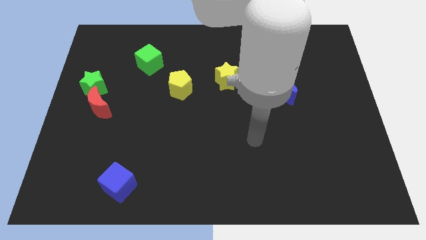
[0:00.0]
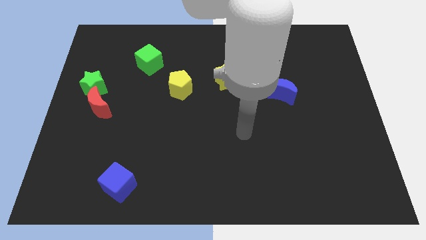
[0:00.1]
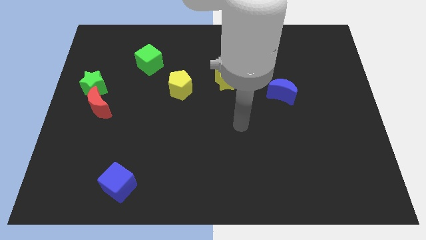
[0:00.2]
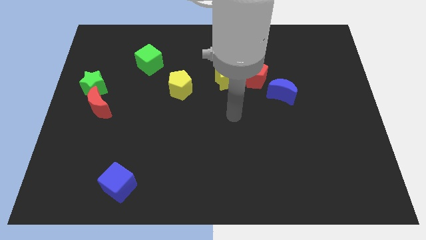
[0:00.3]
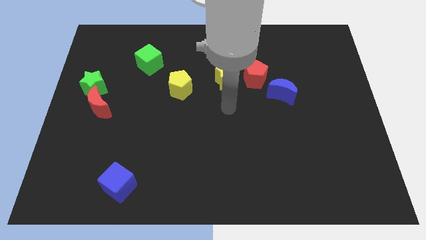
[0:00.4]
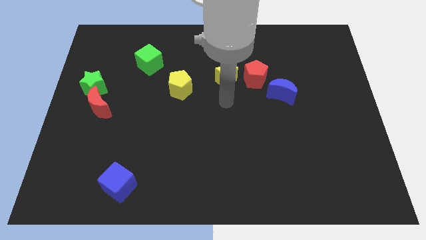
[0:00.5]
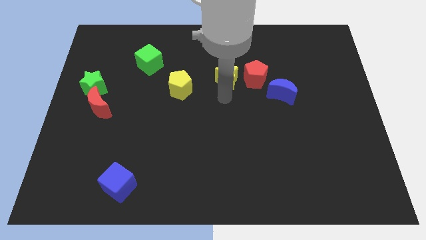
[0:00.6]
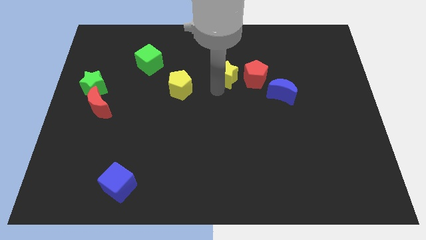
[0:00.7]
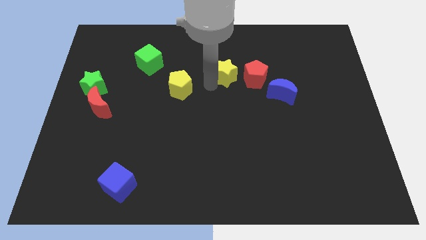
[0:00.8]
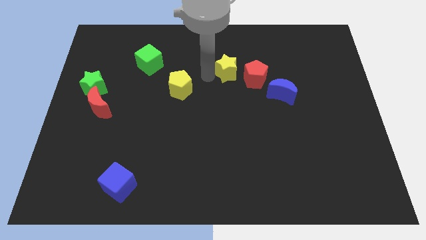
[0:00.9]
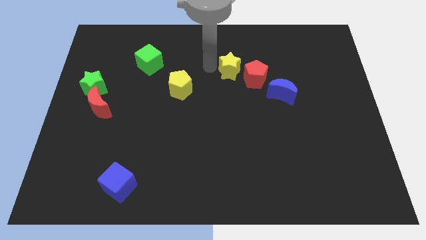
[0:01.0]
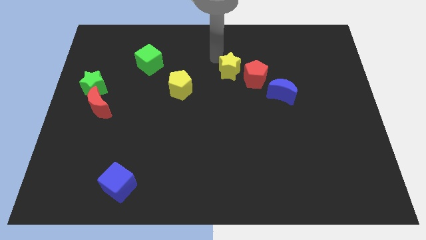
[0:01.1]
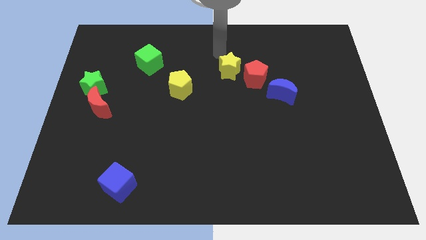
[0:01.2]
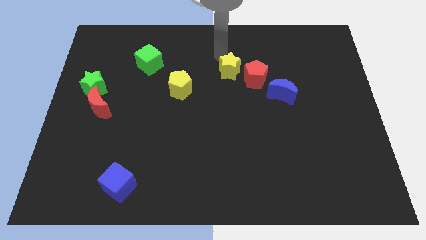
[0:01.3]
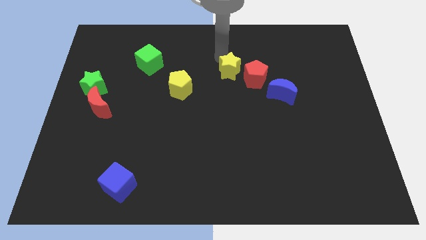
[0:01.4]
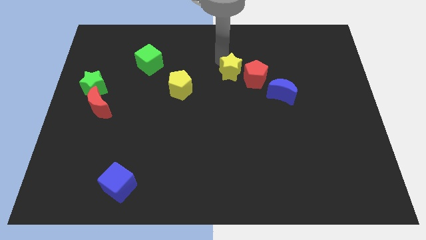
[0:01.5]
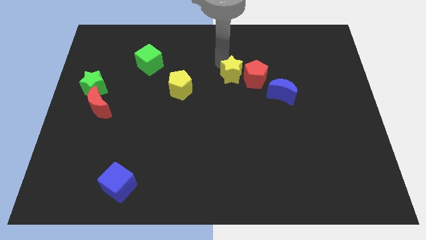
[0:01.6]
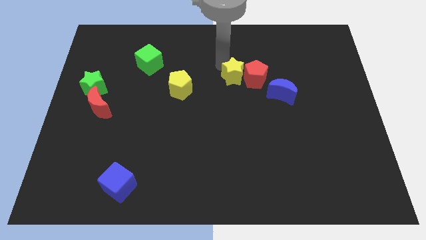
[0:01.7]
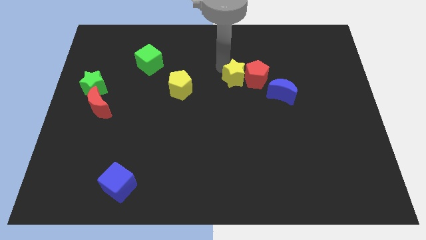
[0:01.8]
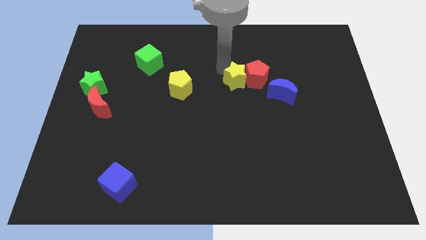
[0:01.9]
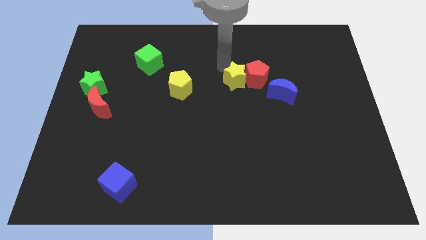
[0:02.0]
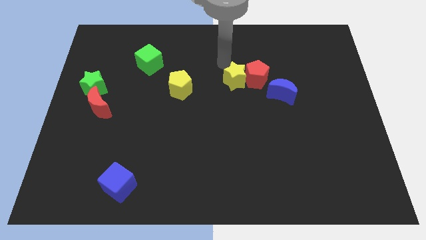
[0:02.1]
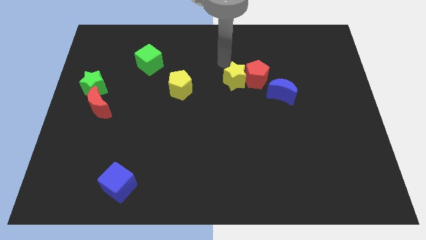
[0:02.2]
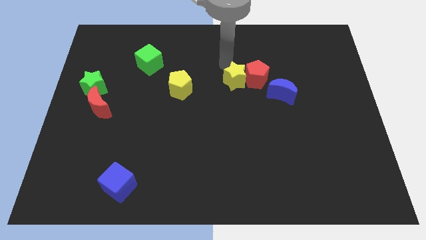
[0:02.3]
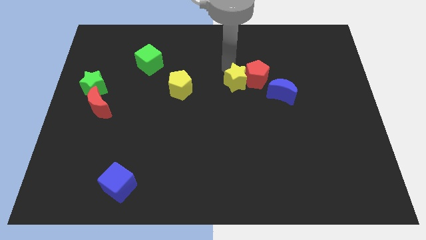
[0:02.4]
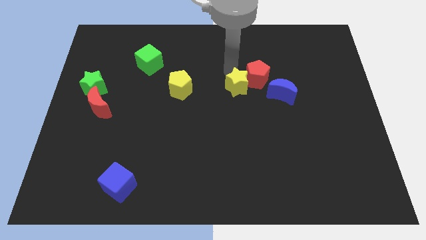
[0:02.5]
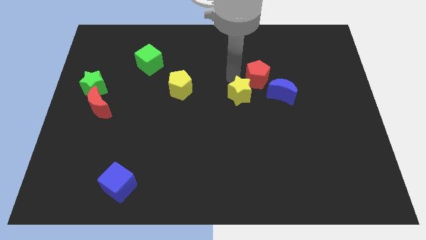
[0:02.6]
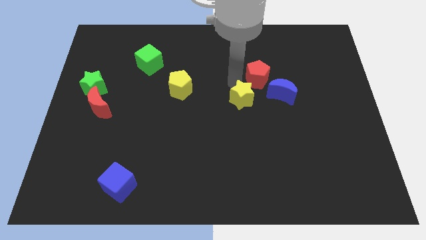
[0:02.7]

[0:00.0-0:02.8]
push the yellow star a little diagonally downwards and right

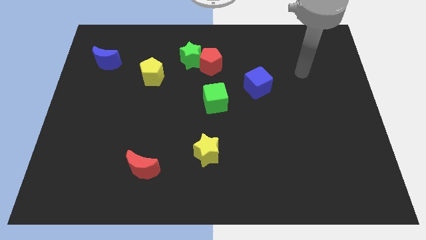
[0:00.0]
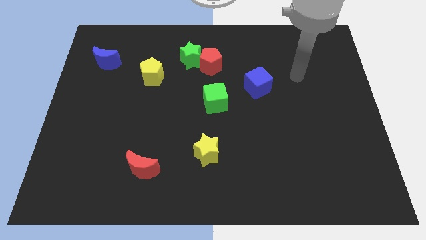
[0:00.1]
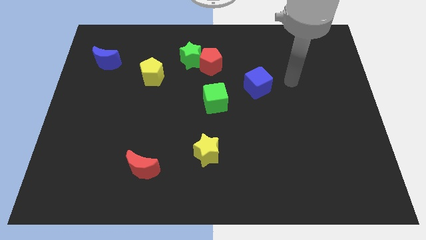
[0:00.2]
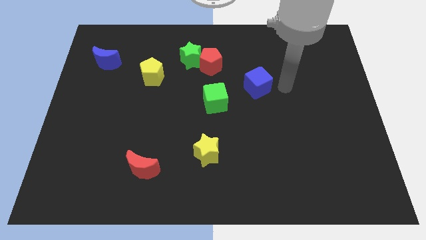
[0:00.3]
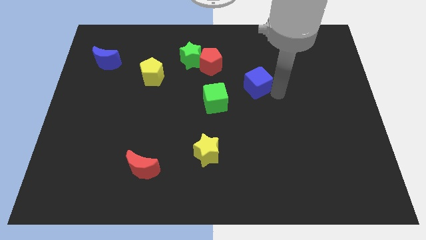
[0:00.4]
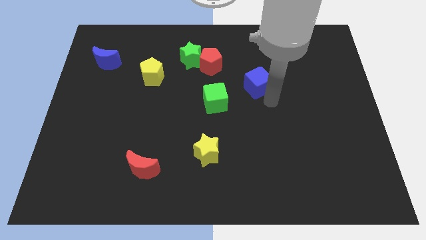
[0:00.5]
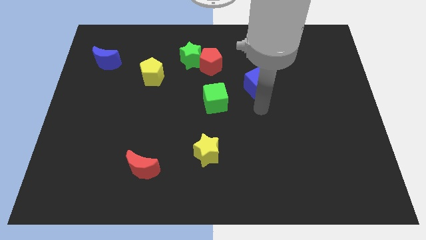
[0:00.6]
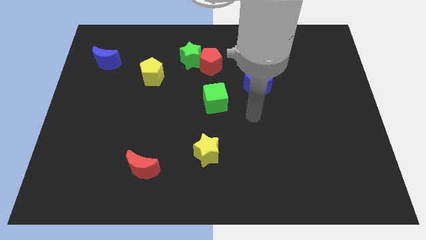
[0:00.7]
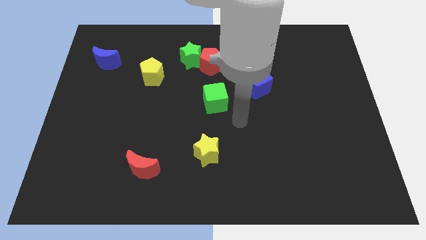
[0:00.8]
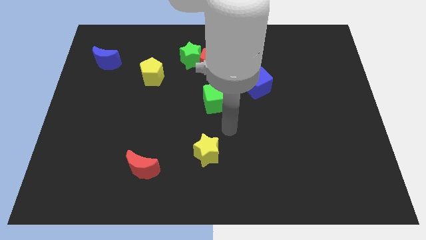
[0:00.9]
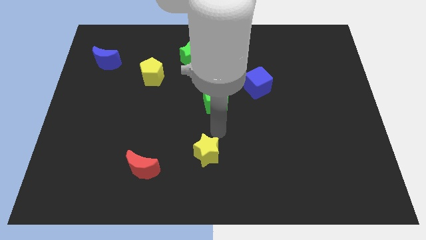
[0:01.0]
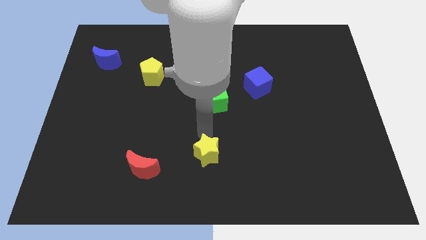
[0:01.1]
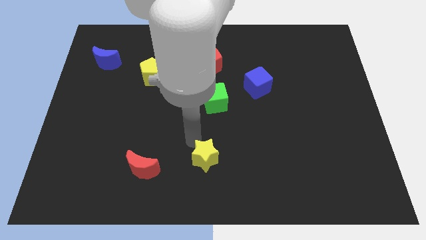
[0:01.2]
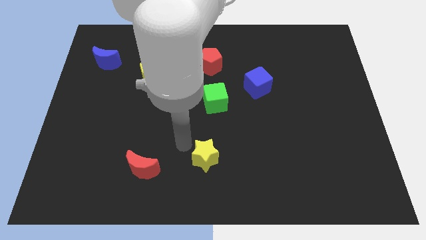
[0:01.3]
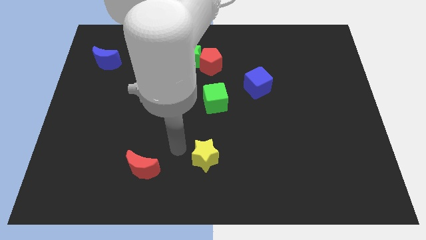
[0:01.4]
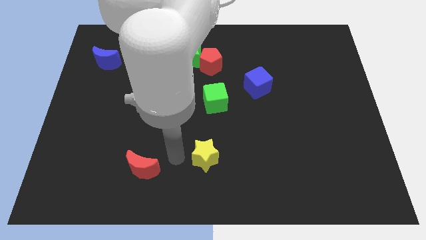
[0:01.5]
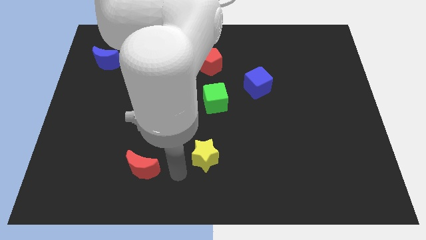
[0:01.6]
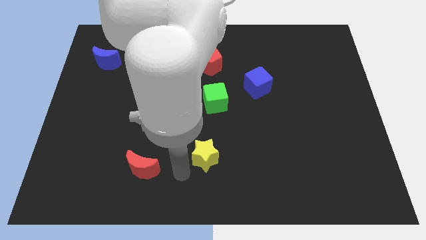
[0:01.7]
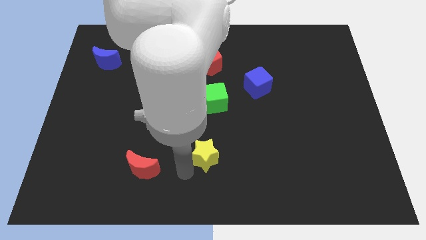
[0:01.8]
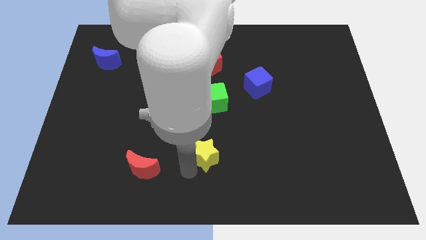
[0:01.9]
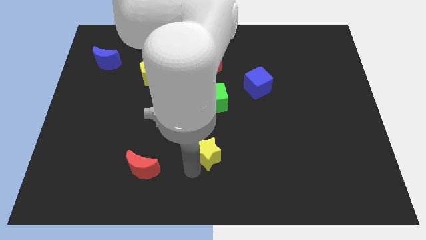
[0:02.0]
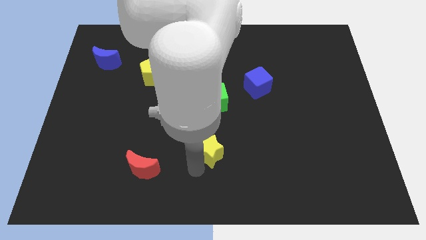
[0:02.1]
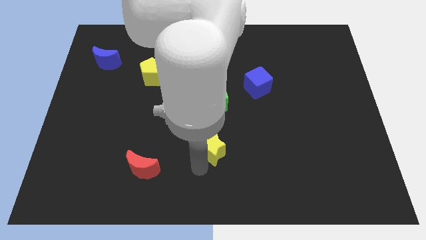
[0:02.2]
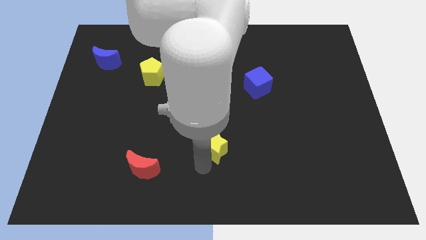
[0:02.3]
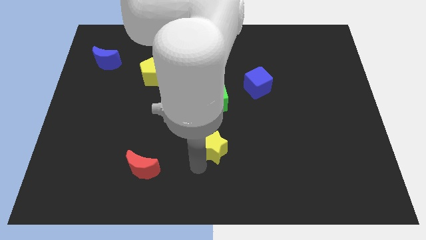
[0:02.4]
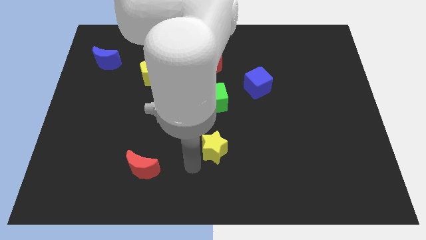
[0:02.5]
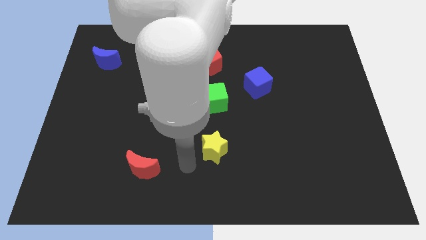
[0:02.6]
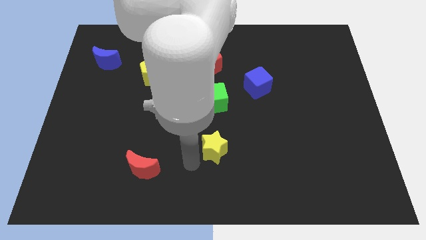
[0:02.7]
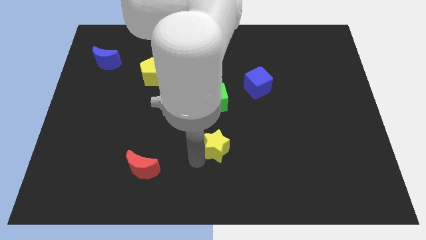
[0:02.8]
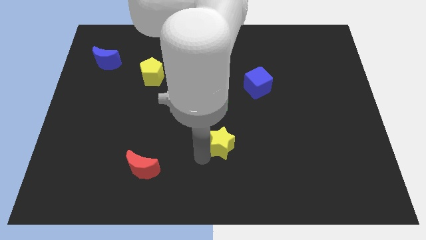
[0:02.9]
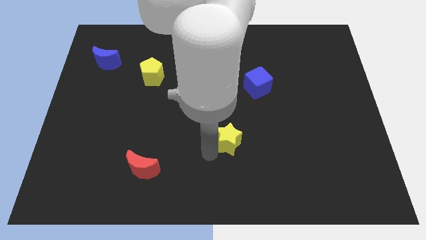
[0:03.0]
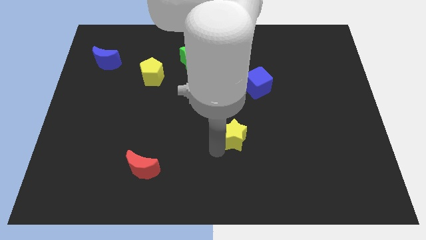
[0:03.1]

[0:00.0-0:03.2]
slightly slide the yellow star diagonally upwards and right

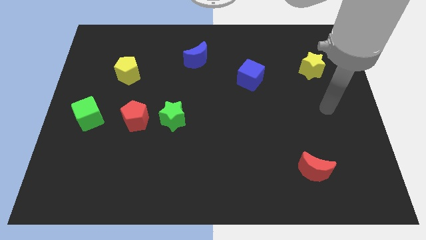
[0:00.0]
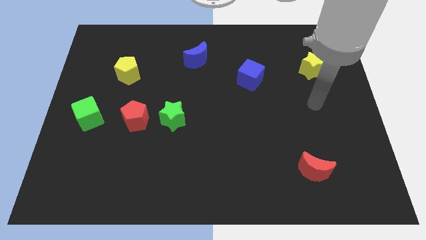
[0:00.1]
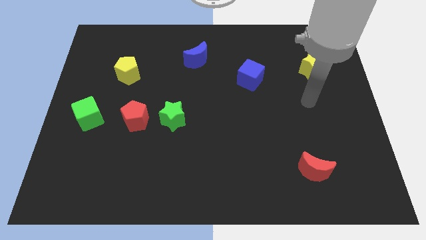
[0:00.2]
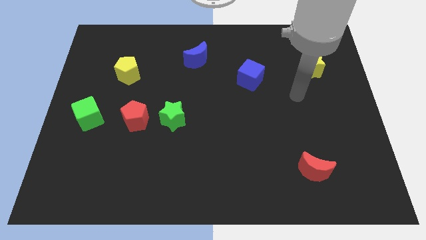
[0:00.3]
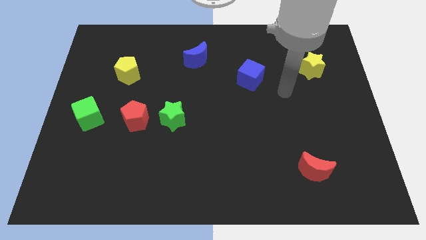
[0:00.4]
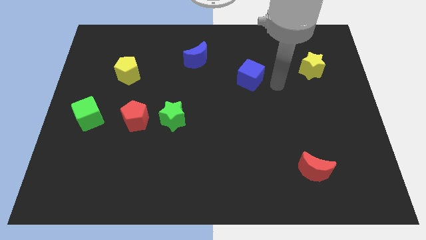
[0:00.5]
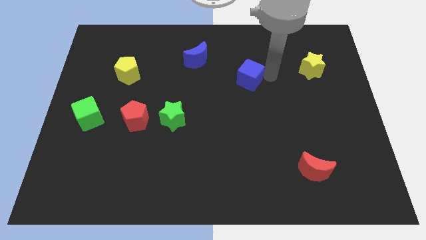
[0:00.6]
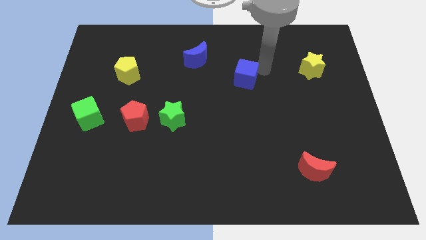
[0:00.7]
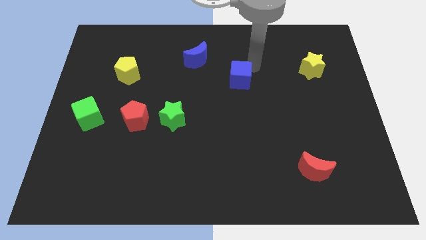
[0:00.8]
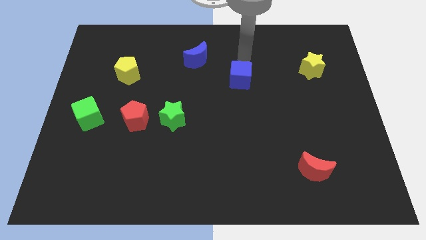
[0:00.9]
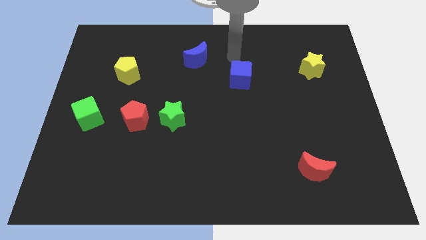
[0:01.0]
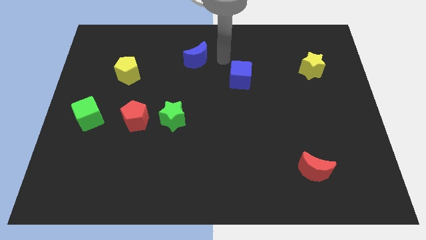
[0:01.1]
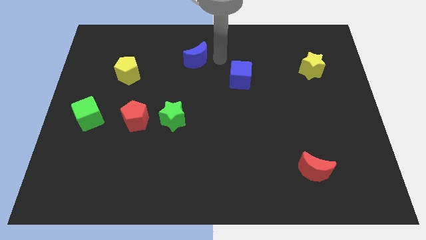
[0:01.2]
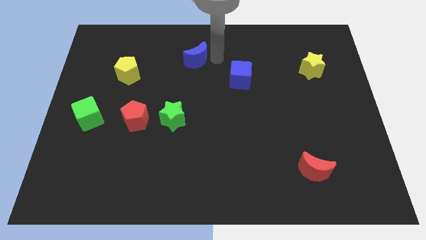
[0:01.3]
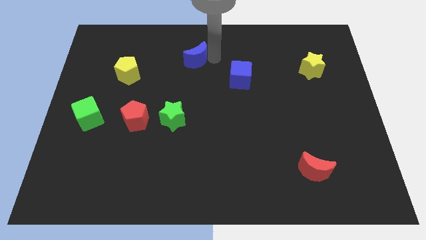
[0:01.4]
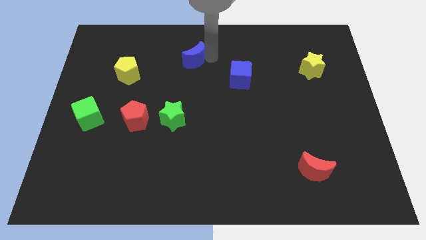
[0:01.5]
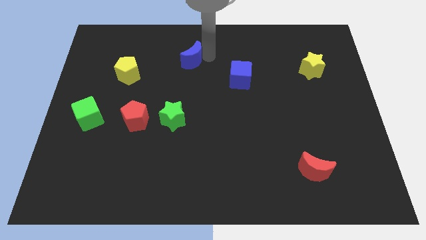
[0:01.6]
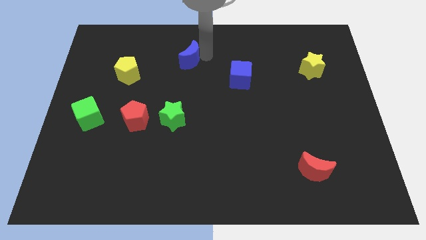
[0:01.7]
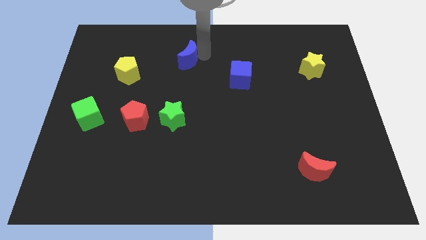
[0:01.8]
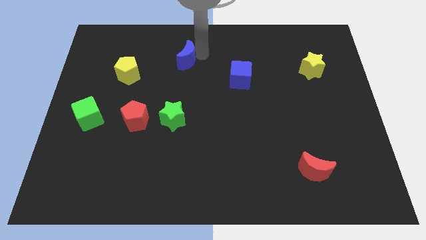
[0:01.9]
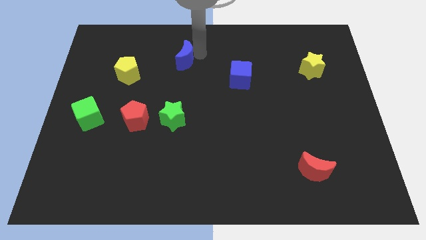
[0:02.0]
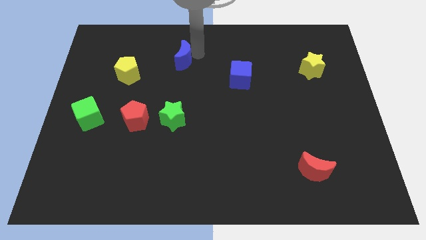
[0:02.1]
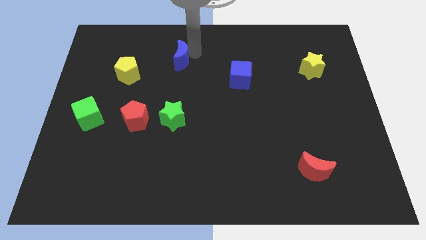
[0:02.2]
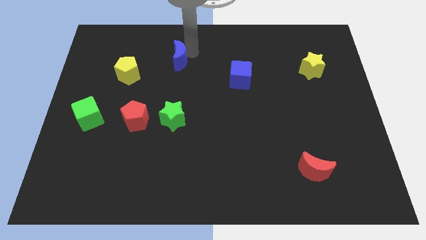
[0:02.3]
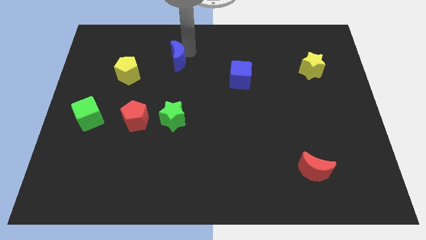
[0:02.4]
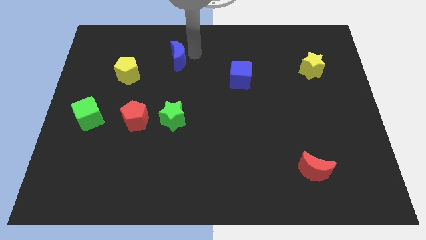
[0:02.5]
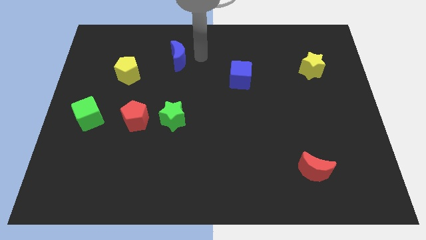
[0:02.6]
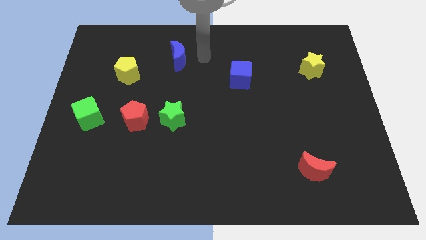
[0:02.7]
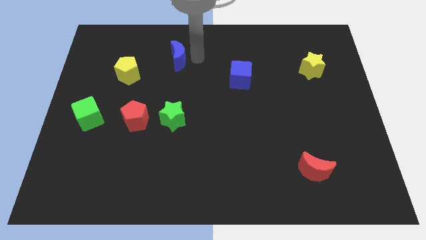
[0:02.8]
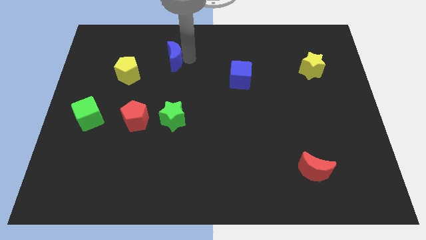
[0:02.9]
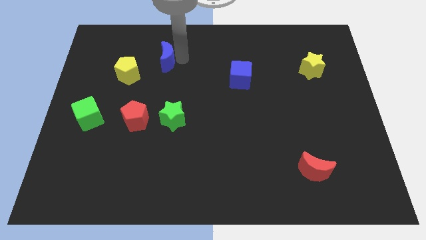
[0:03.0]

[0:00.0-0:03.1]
move the blue moon a little bit to the left
